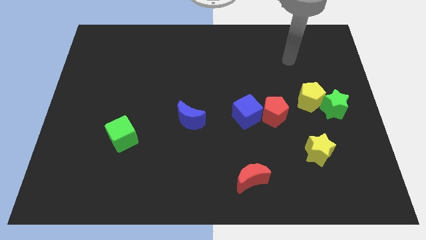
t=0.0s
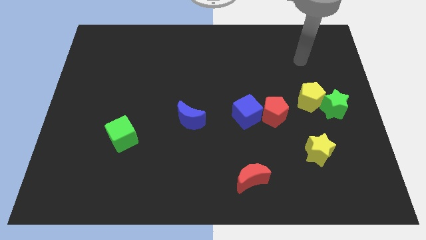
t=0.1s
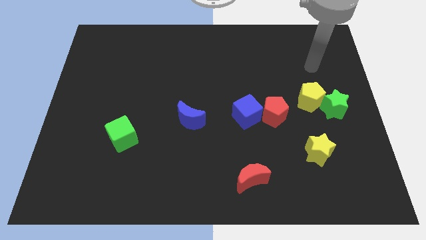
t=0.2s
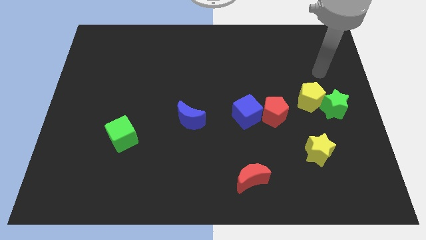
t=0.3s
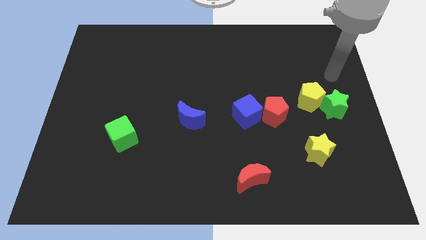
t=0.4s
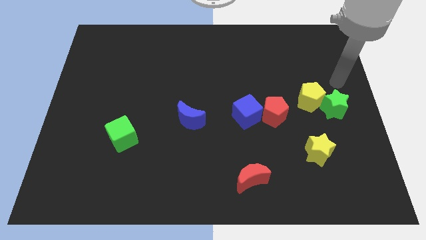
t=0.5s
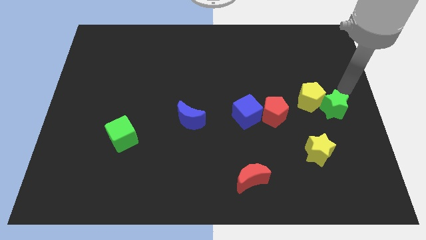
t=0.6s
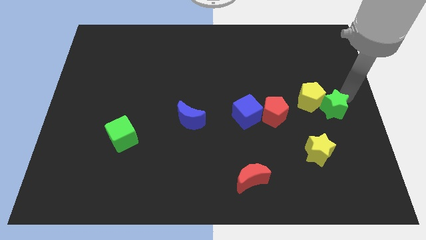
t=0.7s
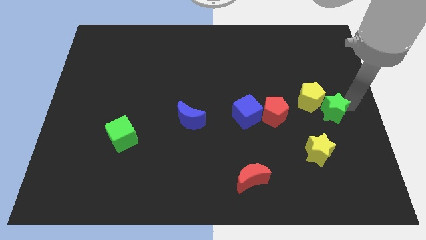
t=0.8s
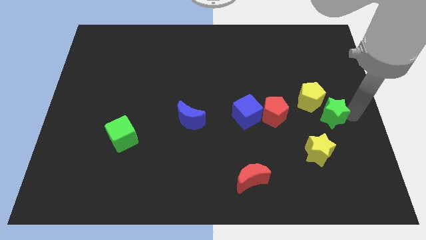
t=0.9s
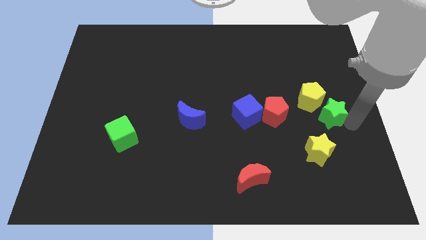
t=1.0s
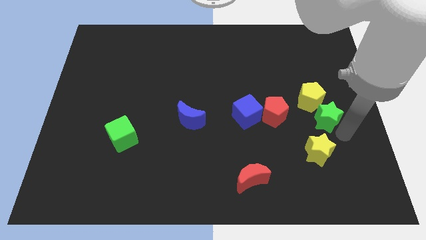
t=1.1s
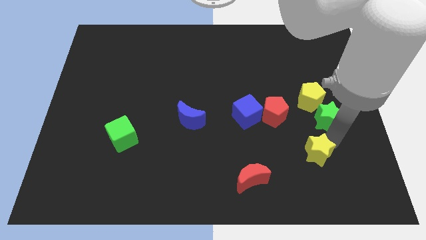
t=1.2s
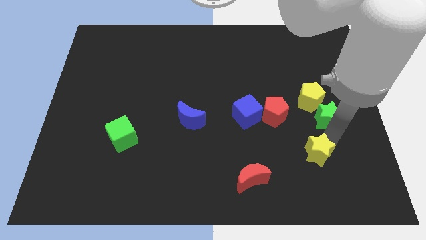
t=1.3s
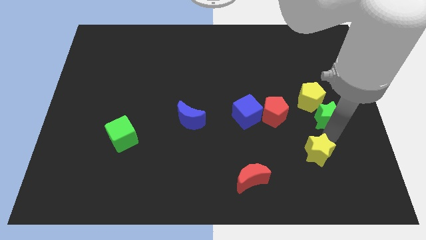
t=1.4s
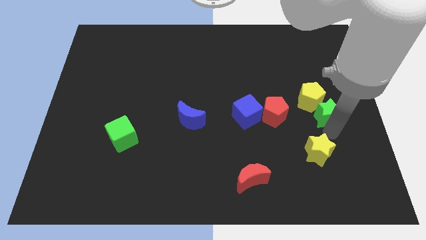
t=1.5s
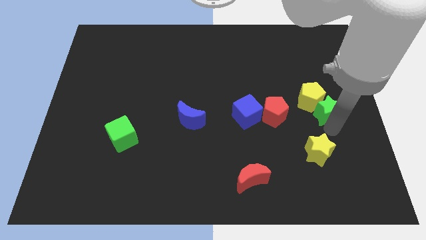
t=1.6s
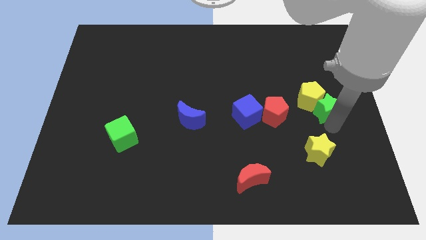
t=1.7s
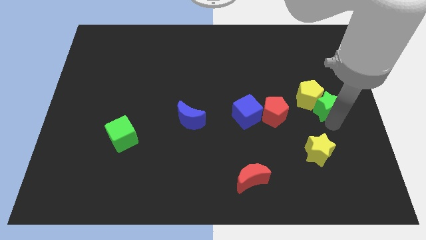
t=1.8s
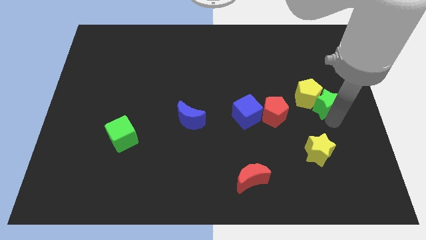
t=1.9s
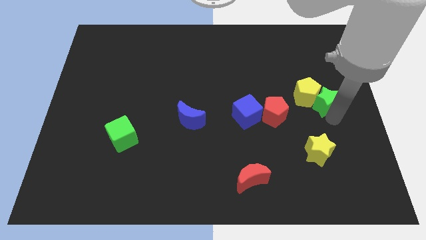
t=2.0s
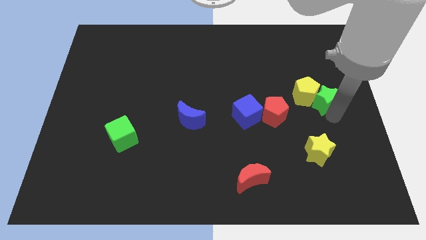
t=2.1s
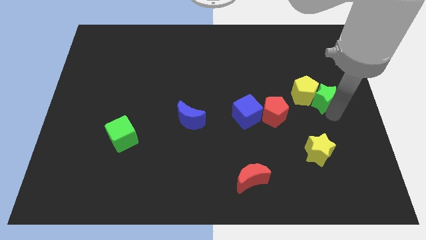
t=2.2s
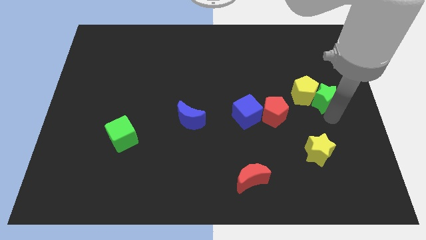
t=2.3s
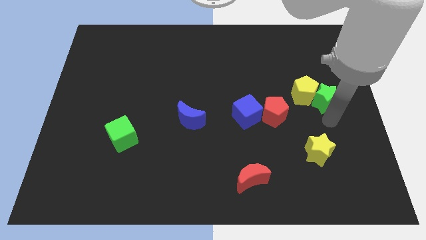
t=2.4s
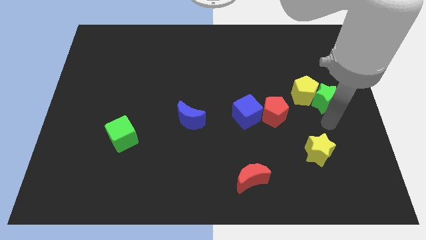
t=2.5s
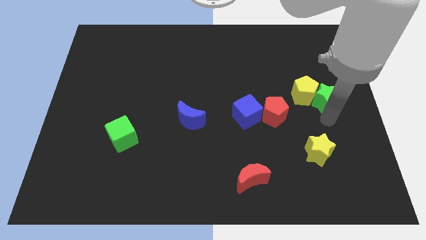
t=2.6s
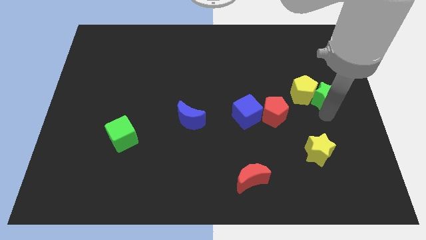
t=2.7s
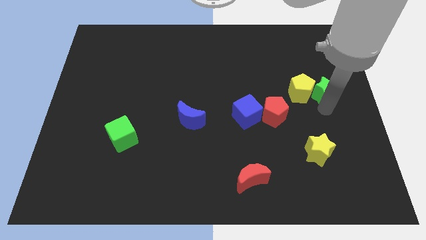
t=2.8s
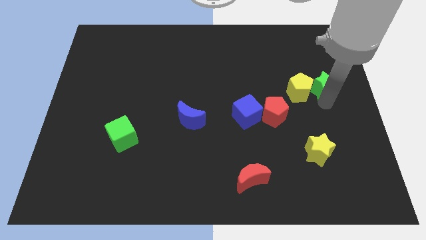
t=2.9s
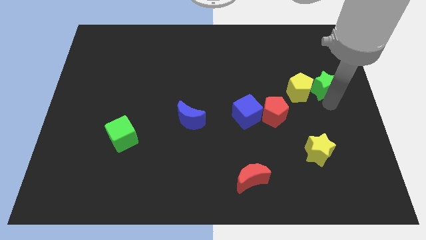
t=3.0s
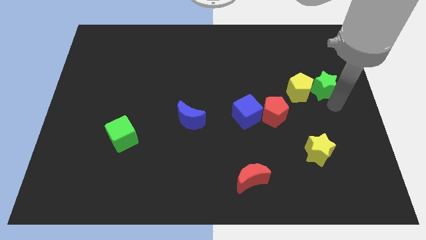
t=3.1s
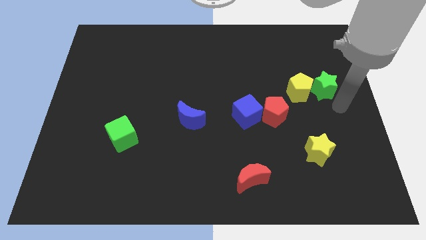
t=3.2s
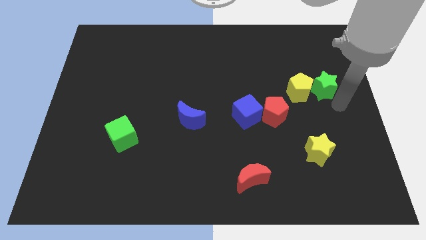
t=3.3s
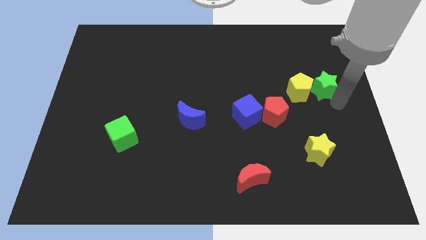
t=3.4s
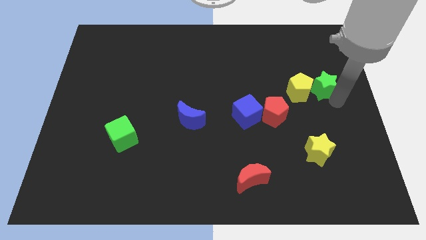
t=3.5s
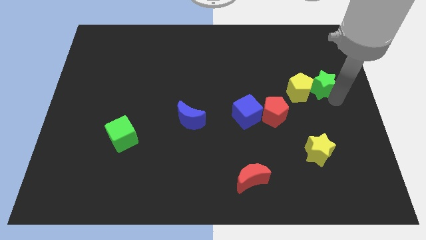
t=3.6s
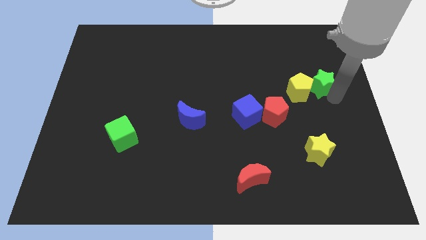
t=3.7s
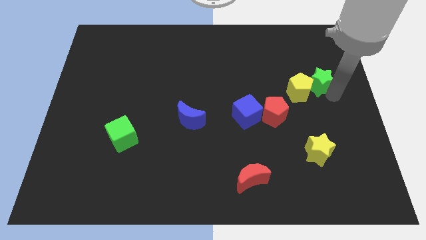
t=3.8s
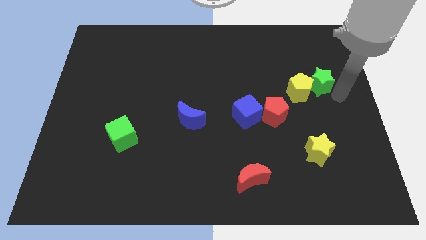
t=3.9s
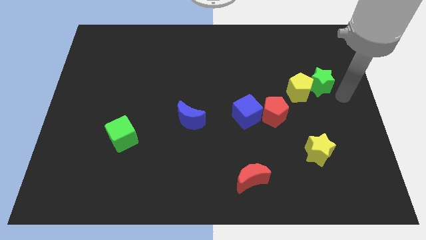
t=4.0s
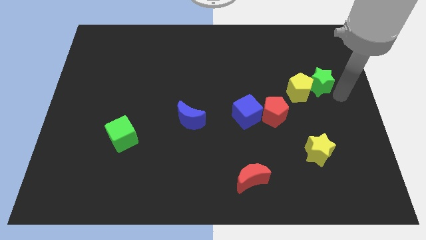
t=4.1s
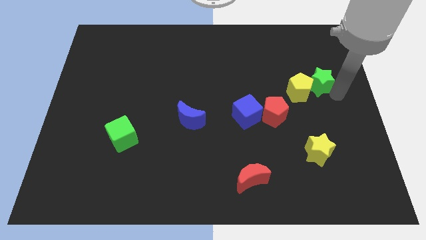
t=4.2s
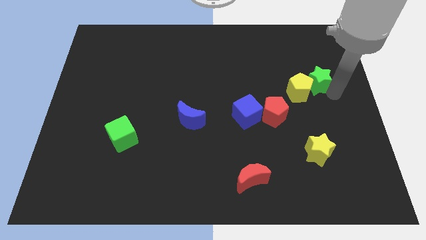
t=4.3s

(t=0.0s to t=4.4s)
slightly move the green star up and to the left

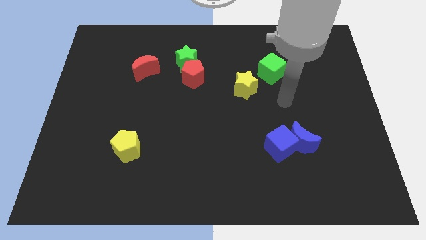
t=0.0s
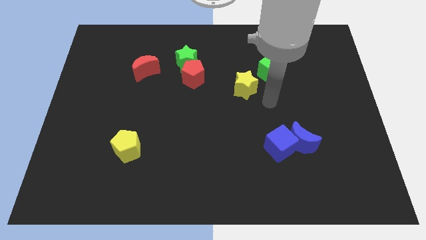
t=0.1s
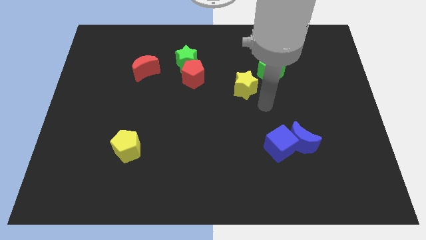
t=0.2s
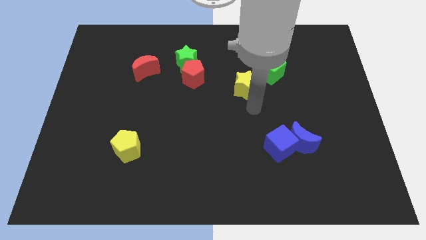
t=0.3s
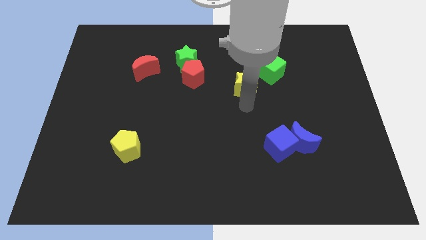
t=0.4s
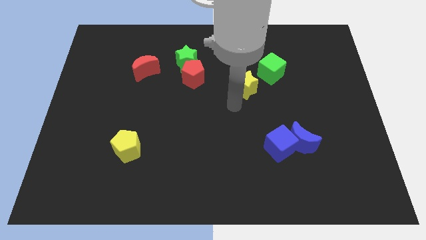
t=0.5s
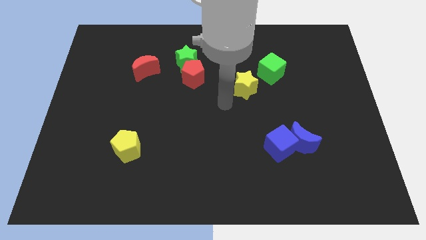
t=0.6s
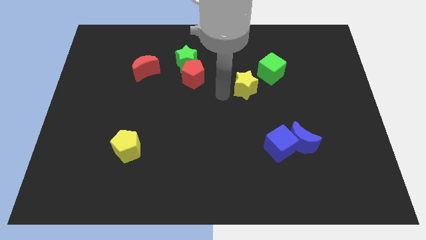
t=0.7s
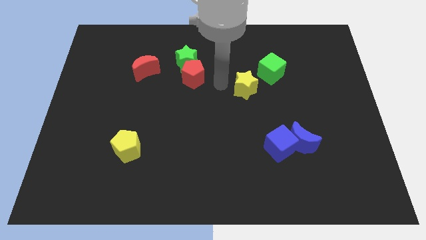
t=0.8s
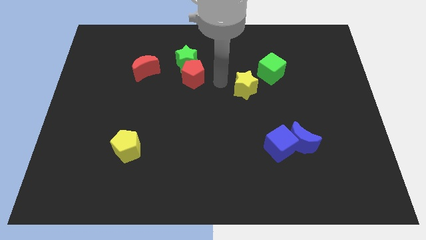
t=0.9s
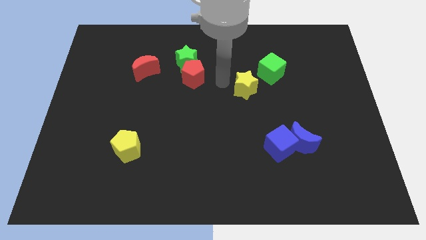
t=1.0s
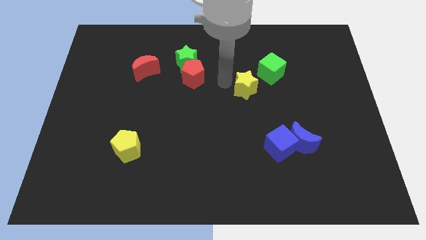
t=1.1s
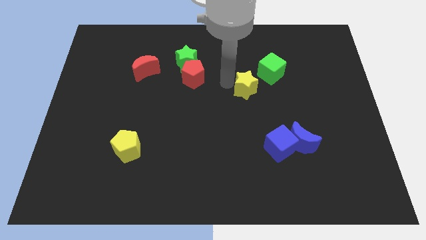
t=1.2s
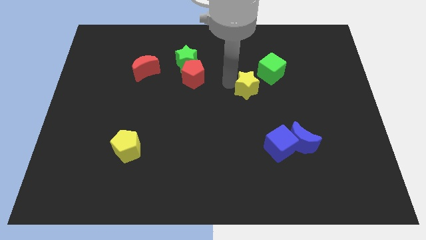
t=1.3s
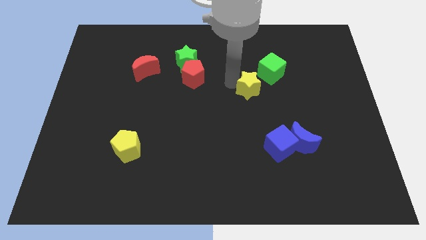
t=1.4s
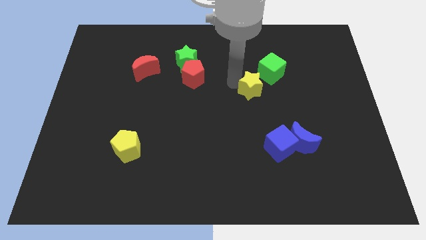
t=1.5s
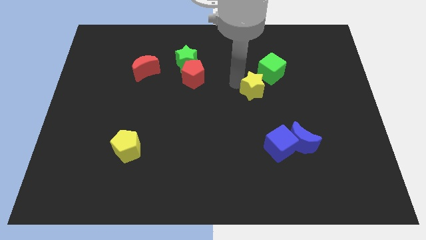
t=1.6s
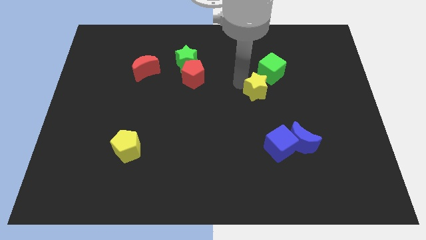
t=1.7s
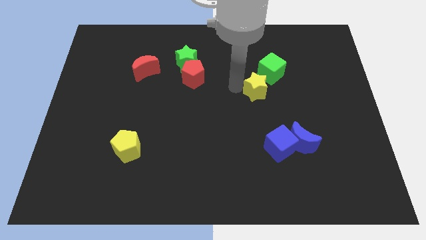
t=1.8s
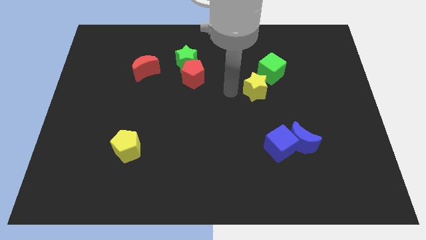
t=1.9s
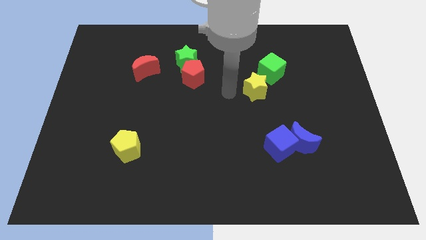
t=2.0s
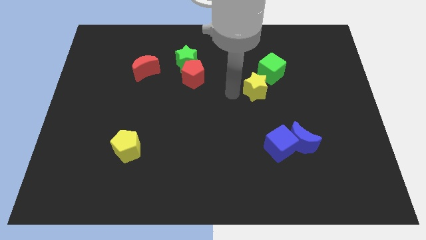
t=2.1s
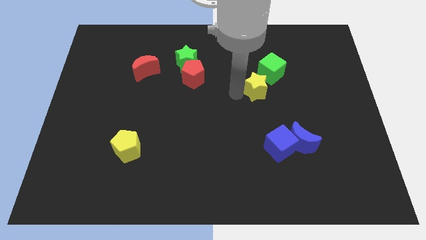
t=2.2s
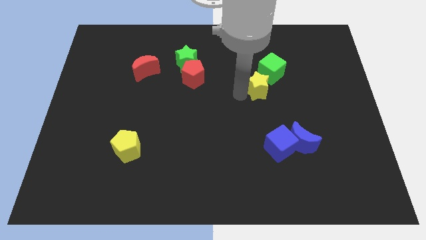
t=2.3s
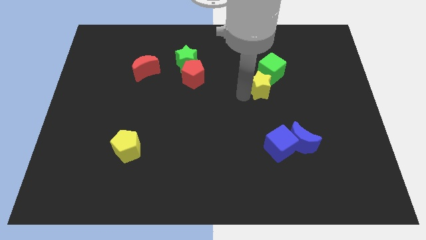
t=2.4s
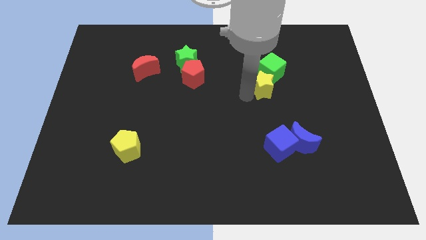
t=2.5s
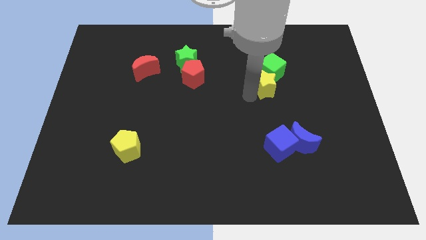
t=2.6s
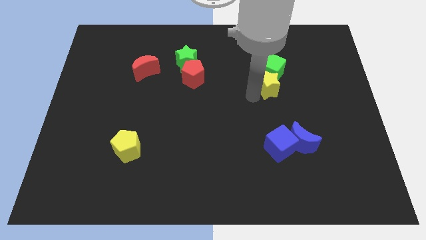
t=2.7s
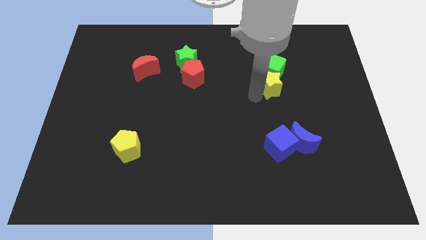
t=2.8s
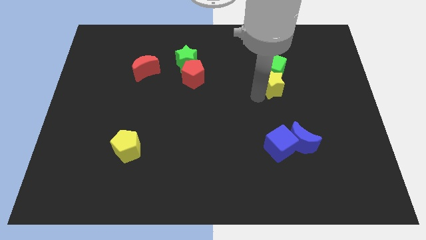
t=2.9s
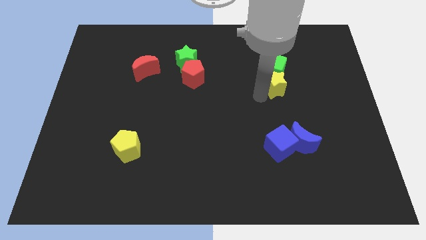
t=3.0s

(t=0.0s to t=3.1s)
slightly move the yellow star to the right

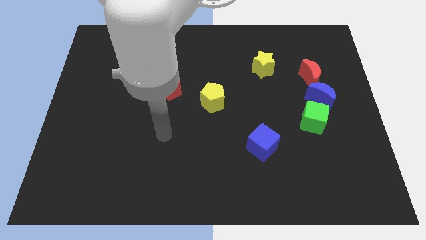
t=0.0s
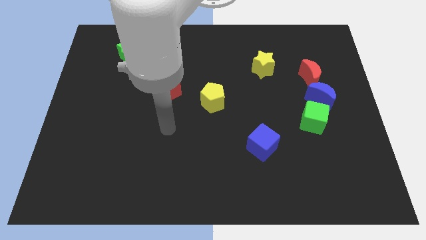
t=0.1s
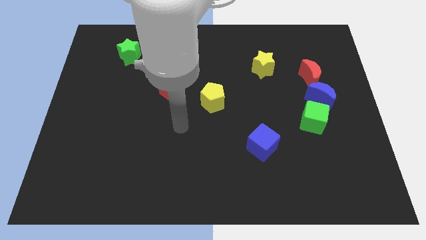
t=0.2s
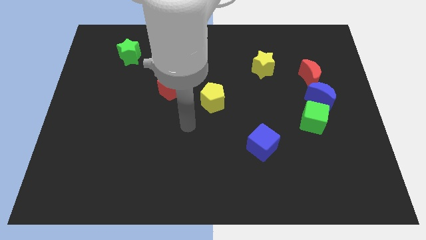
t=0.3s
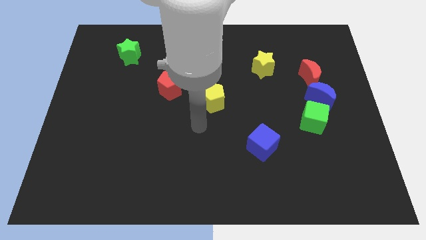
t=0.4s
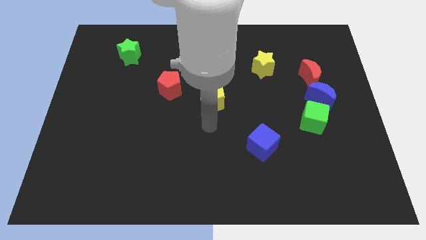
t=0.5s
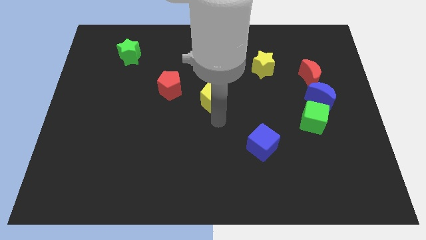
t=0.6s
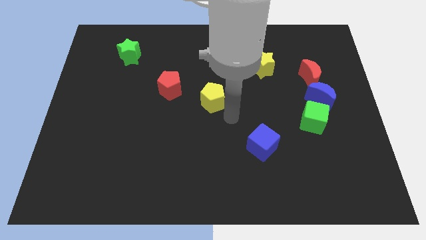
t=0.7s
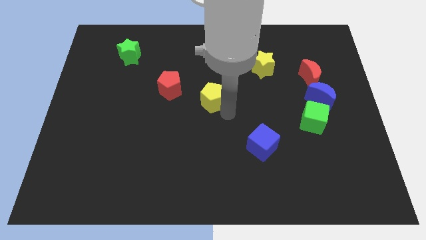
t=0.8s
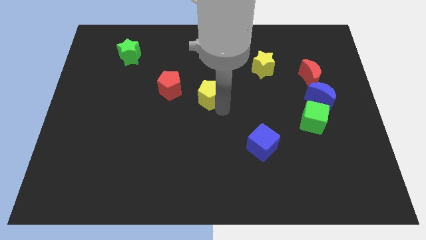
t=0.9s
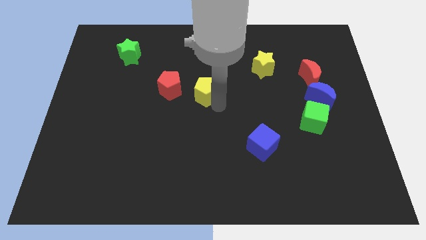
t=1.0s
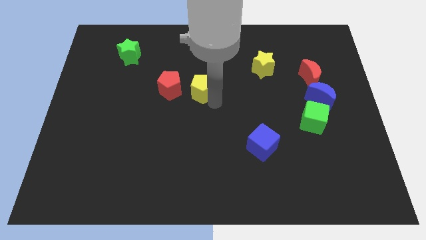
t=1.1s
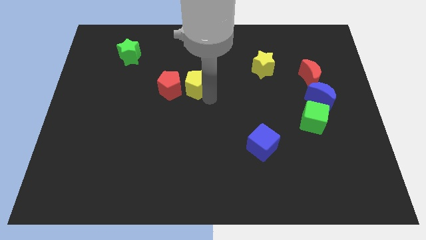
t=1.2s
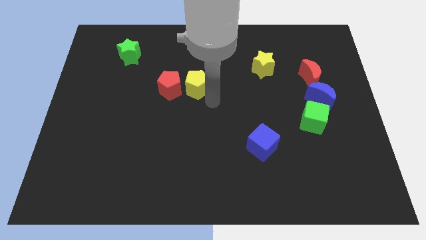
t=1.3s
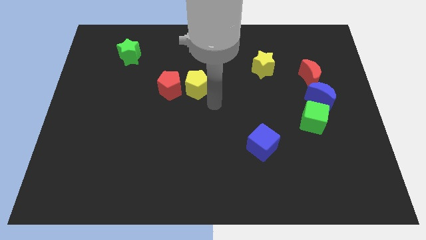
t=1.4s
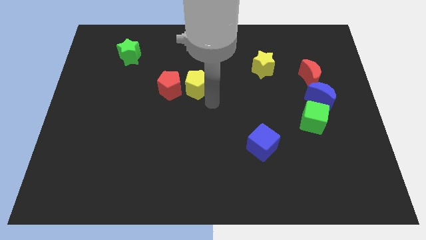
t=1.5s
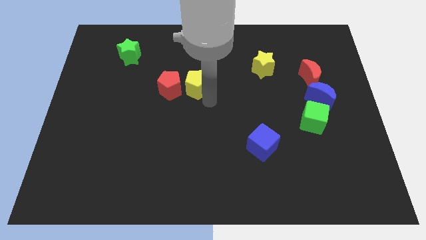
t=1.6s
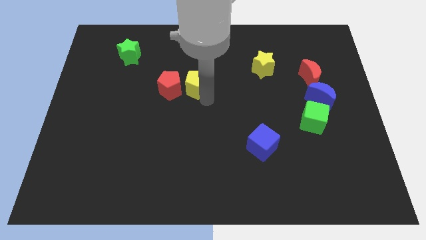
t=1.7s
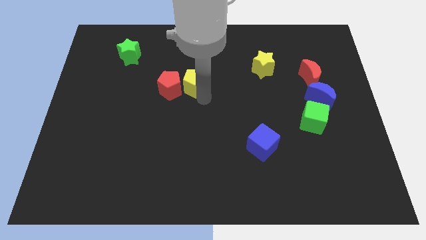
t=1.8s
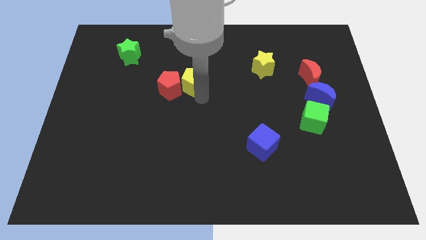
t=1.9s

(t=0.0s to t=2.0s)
push the yellow pentagon a little diagonally upwards and to the left
